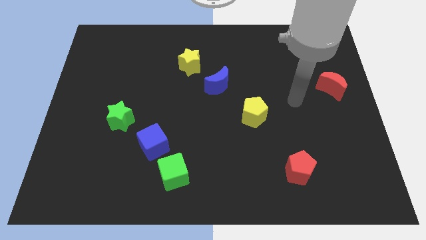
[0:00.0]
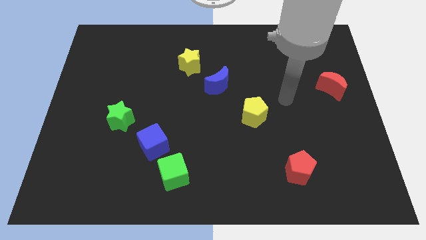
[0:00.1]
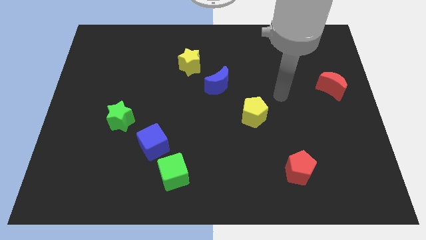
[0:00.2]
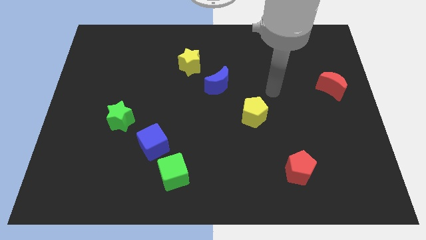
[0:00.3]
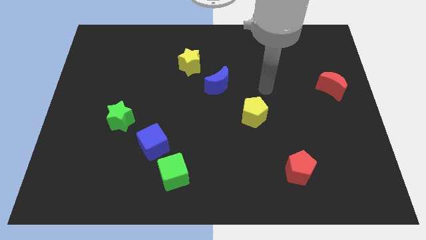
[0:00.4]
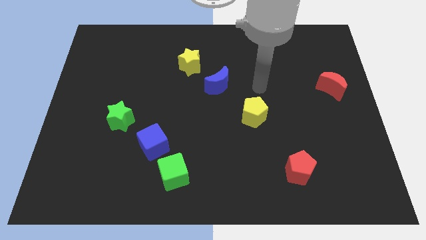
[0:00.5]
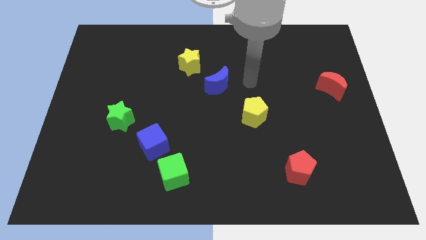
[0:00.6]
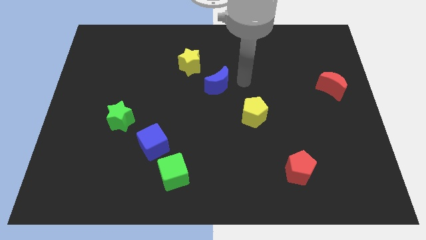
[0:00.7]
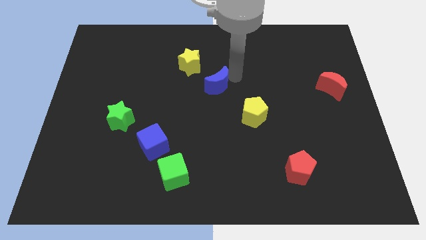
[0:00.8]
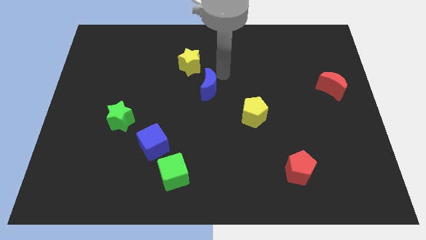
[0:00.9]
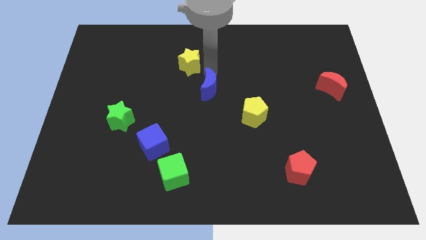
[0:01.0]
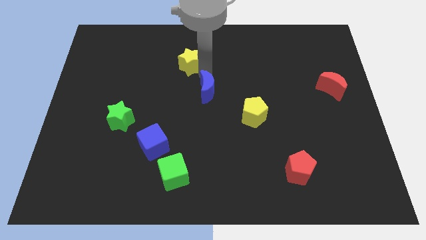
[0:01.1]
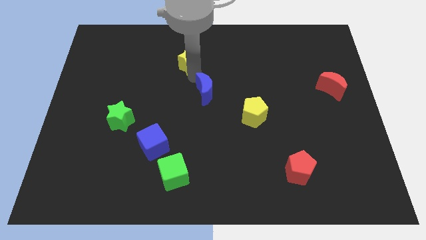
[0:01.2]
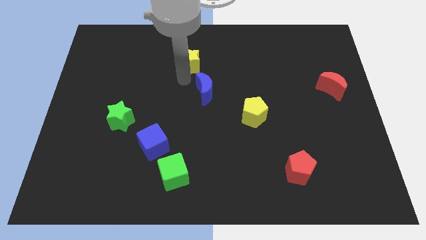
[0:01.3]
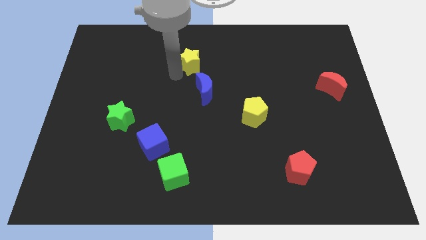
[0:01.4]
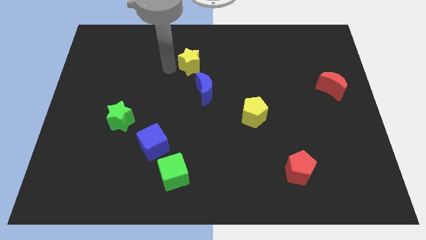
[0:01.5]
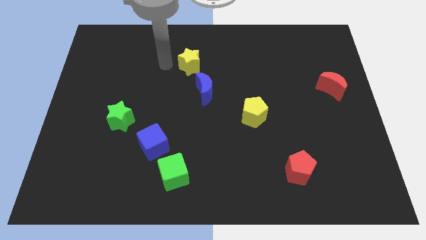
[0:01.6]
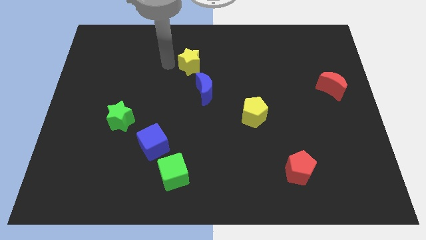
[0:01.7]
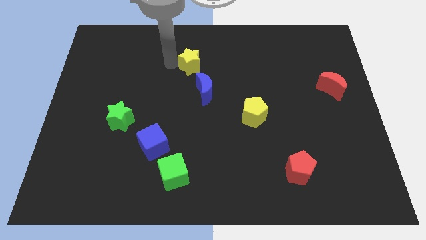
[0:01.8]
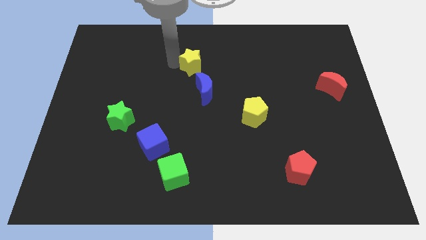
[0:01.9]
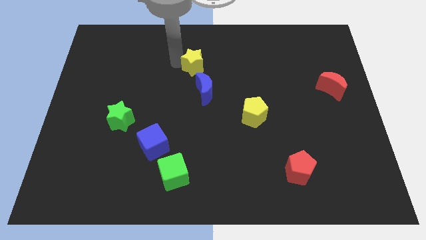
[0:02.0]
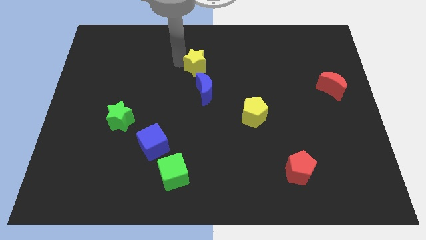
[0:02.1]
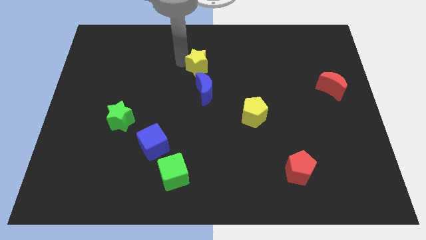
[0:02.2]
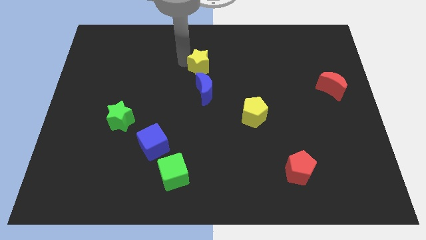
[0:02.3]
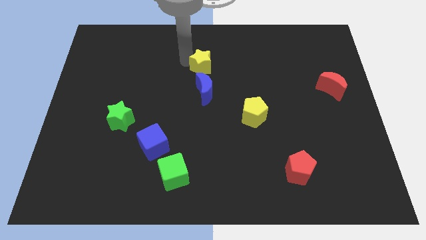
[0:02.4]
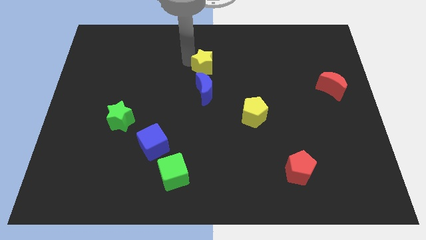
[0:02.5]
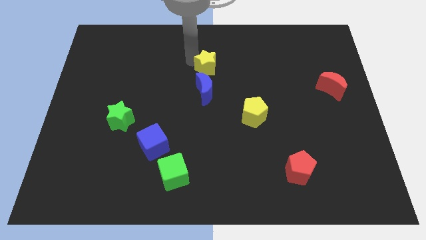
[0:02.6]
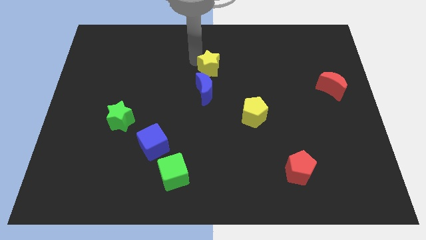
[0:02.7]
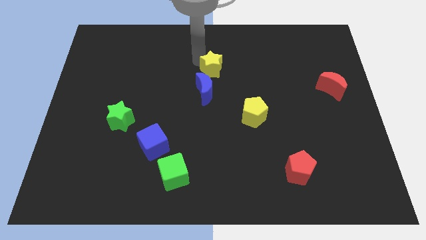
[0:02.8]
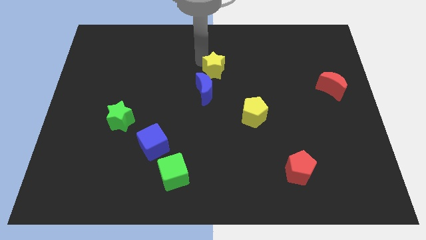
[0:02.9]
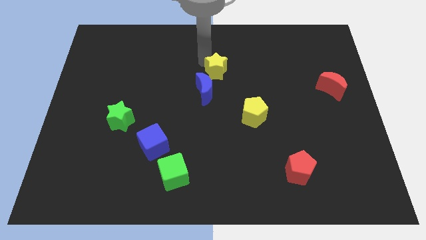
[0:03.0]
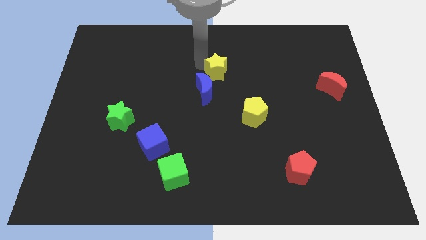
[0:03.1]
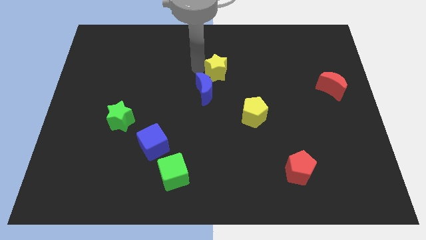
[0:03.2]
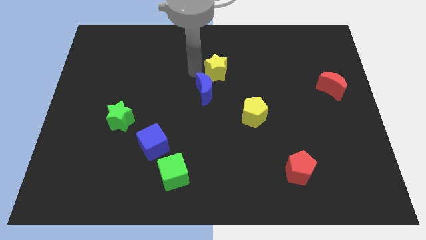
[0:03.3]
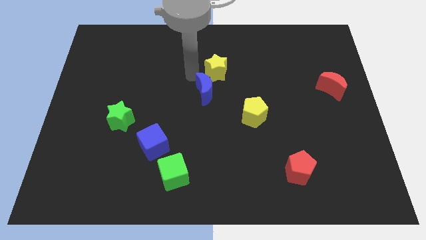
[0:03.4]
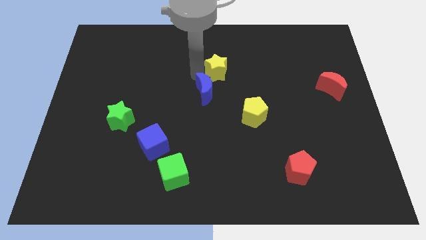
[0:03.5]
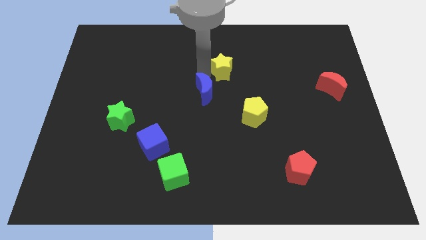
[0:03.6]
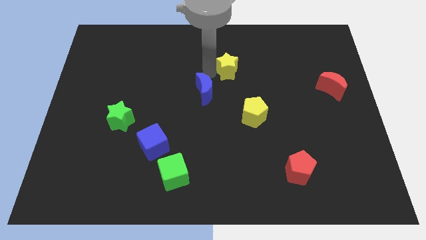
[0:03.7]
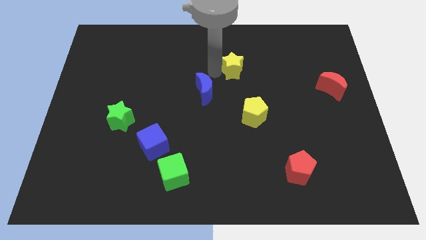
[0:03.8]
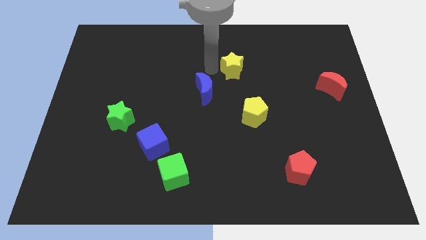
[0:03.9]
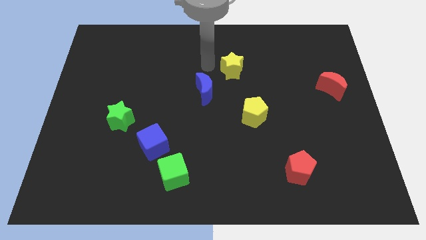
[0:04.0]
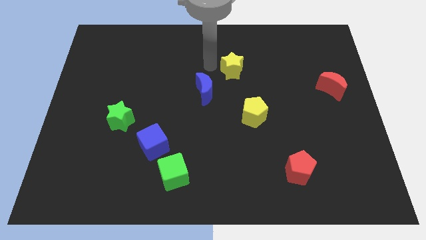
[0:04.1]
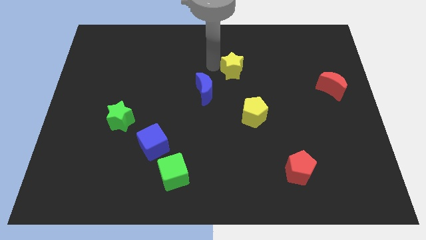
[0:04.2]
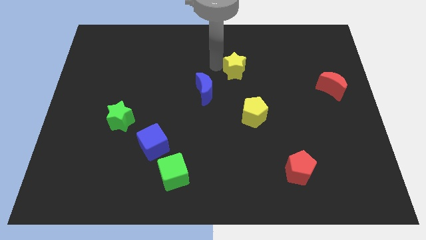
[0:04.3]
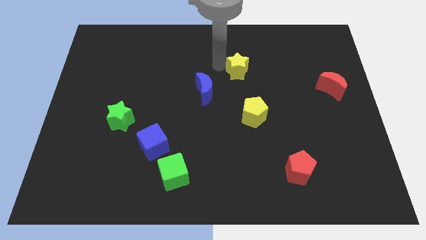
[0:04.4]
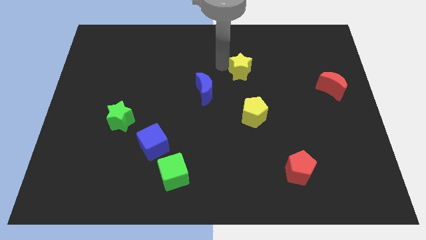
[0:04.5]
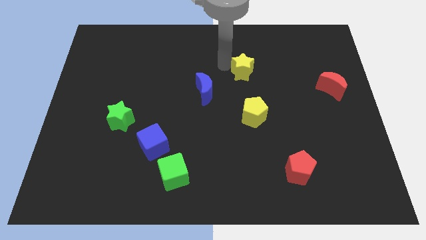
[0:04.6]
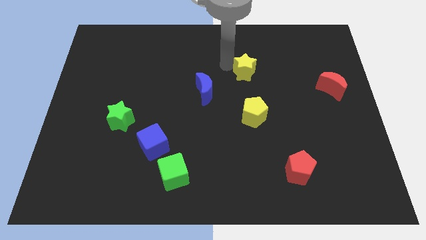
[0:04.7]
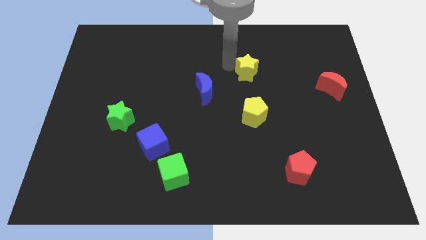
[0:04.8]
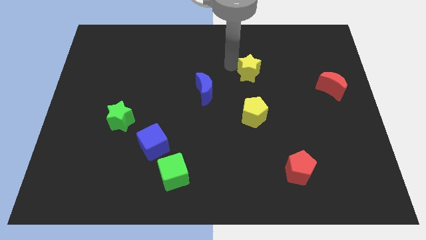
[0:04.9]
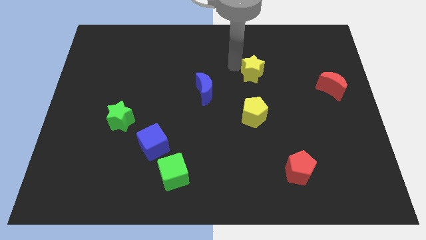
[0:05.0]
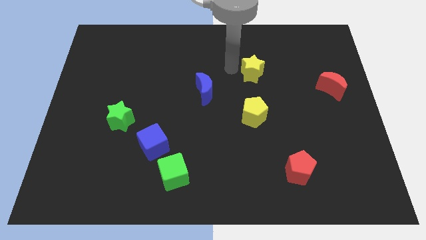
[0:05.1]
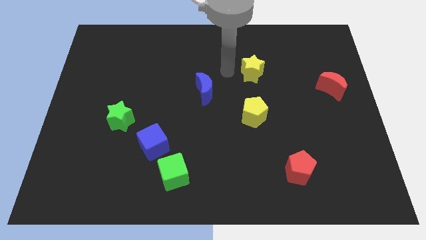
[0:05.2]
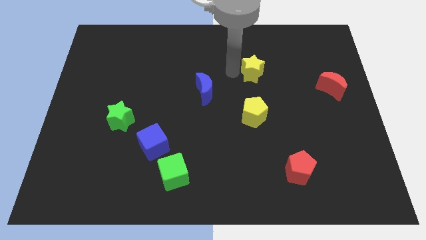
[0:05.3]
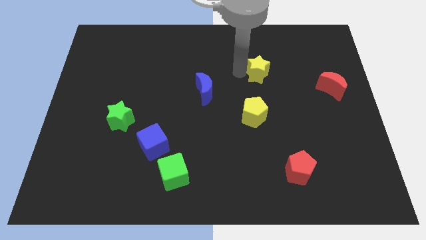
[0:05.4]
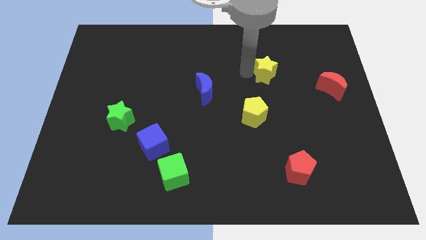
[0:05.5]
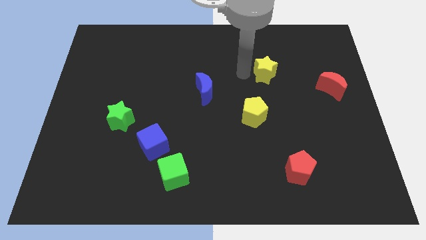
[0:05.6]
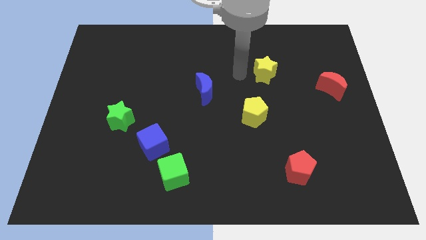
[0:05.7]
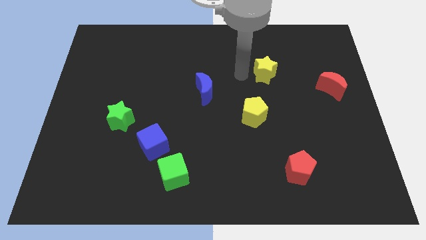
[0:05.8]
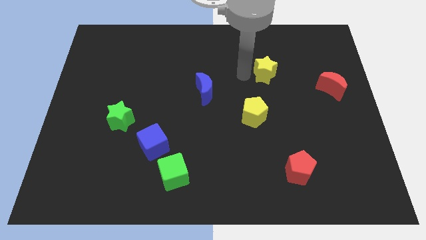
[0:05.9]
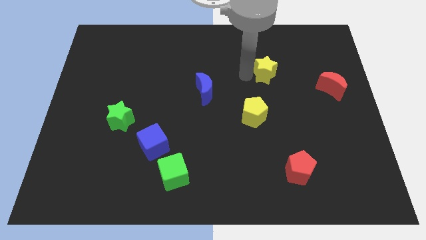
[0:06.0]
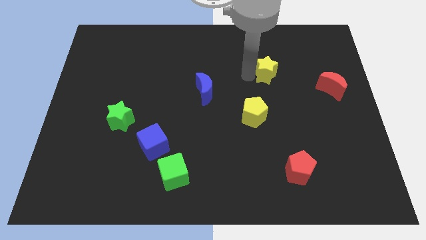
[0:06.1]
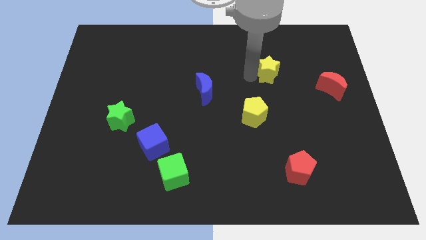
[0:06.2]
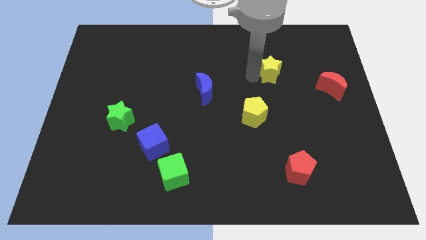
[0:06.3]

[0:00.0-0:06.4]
move the yellow star to the right

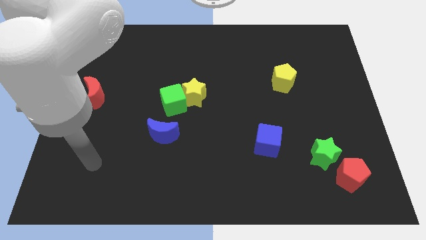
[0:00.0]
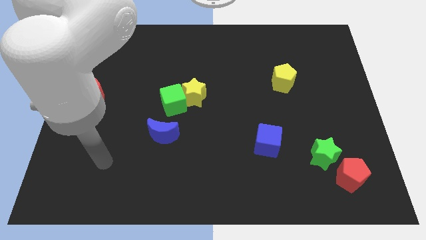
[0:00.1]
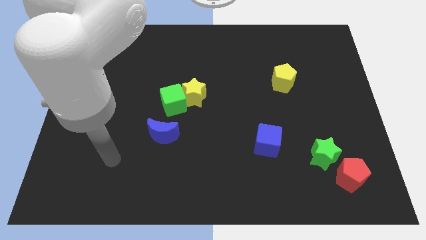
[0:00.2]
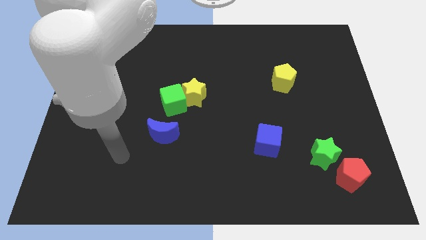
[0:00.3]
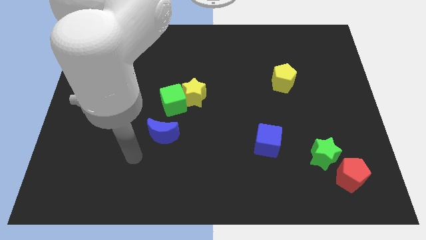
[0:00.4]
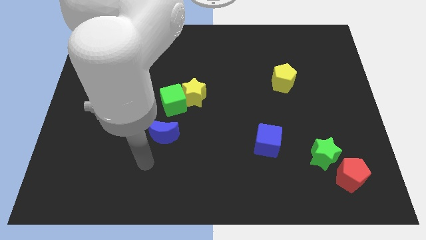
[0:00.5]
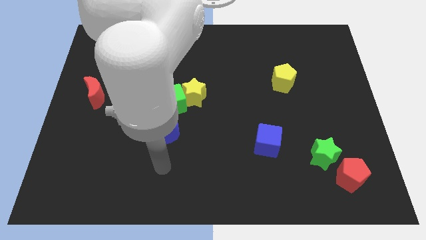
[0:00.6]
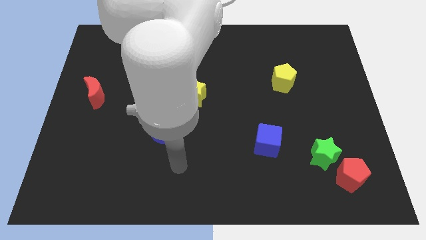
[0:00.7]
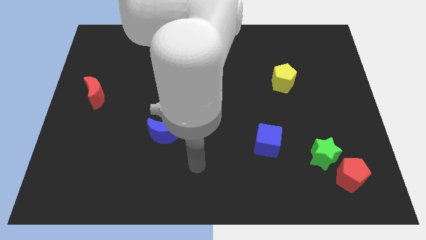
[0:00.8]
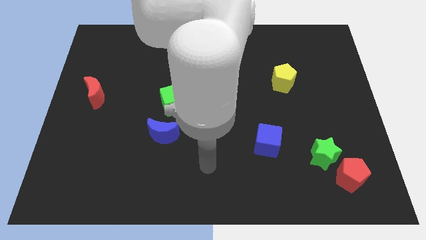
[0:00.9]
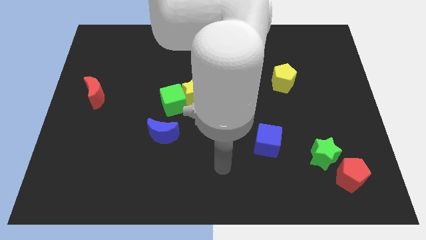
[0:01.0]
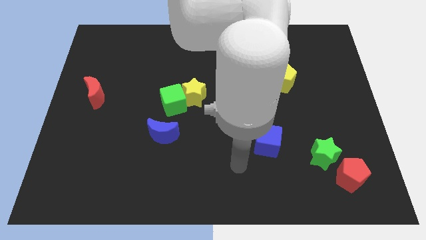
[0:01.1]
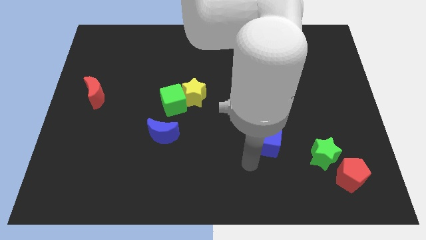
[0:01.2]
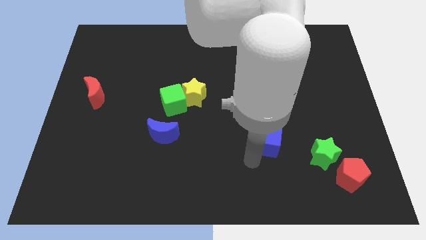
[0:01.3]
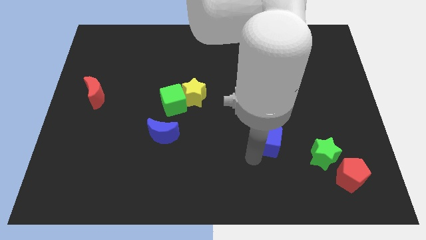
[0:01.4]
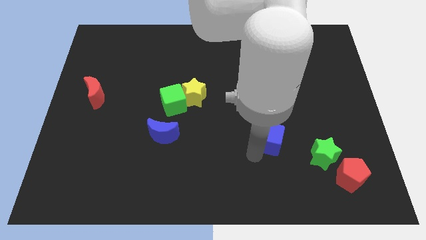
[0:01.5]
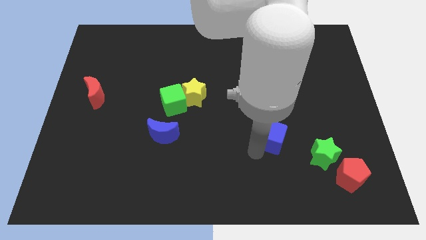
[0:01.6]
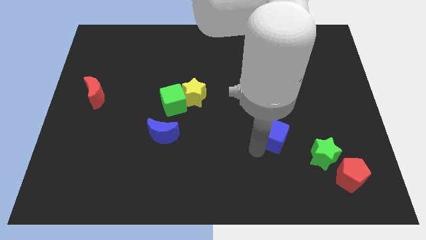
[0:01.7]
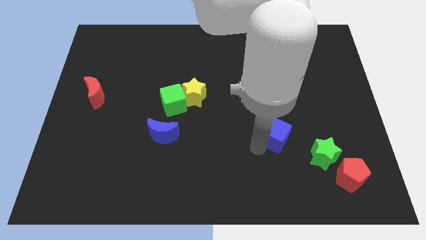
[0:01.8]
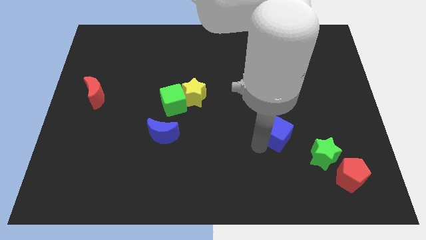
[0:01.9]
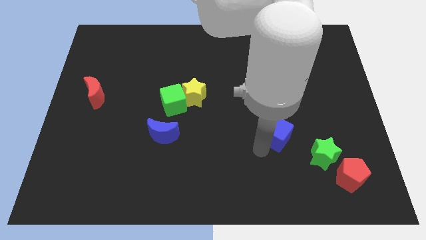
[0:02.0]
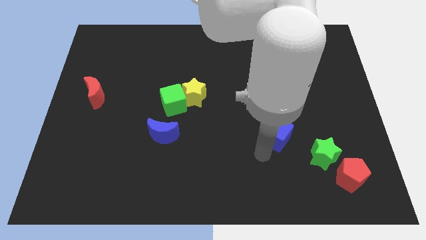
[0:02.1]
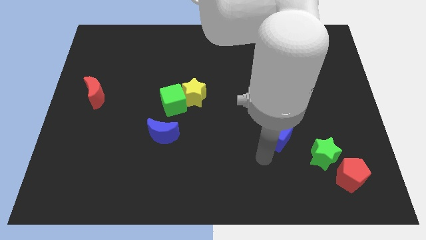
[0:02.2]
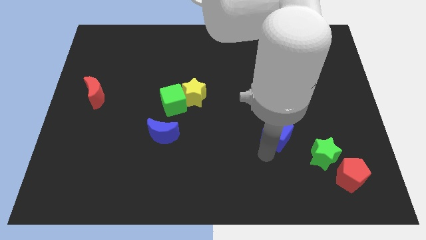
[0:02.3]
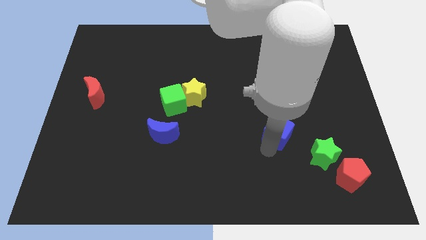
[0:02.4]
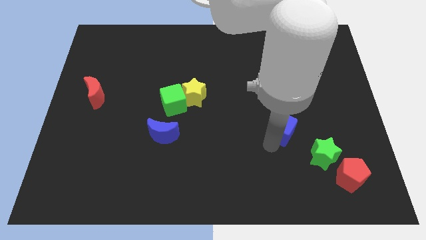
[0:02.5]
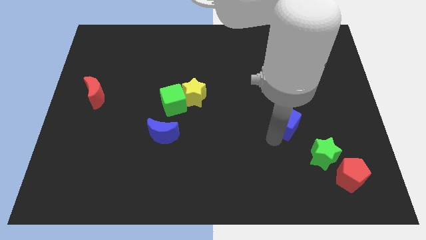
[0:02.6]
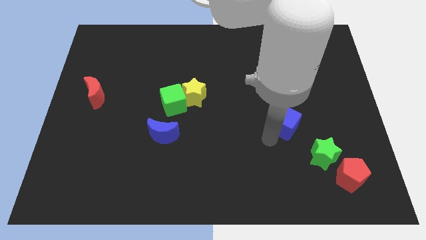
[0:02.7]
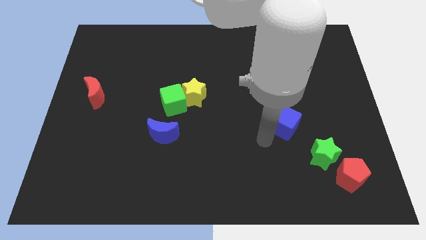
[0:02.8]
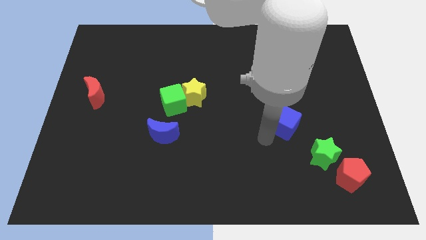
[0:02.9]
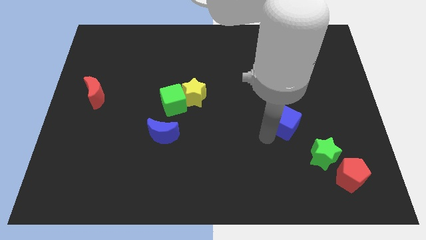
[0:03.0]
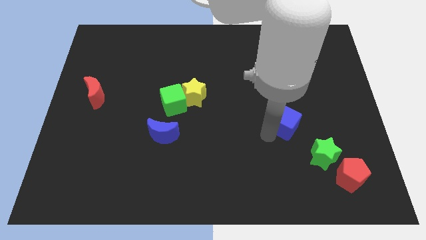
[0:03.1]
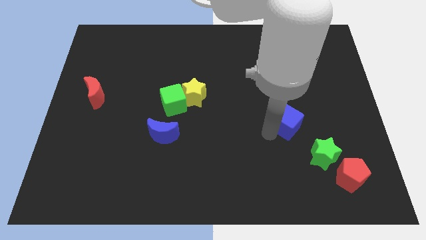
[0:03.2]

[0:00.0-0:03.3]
move the blue cube slightly upwards and right
